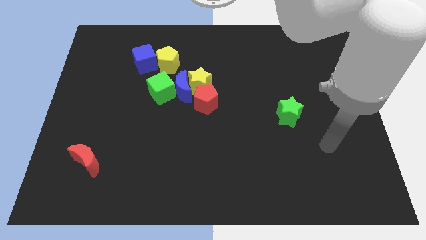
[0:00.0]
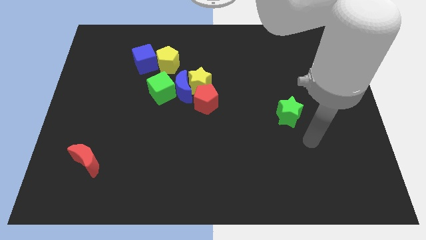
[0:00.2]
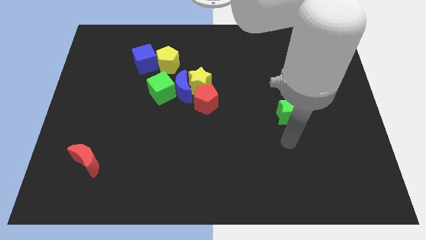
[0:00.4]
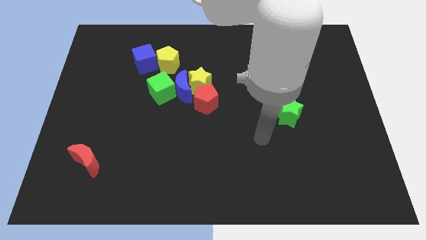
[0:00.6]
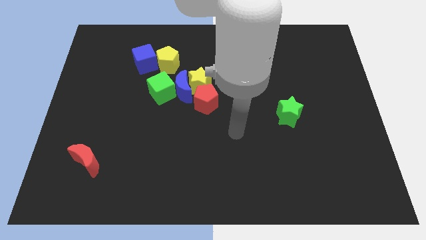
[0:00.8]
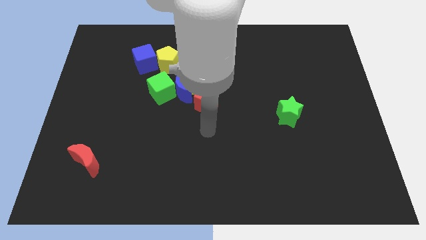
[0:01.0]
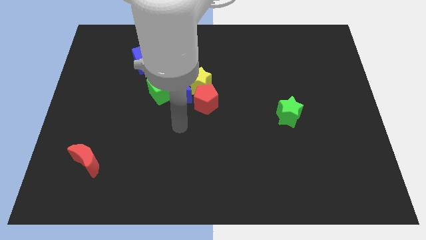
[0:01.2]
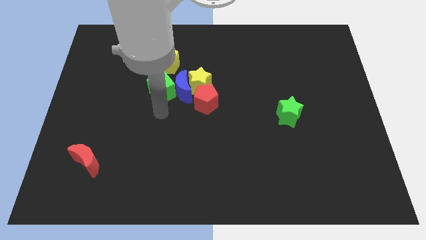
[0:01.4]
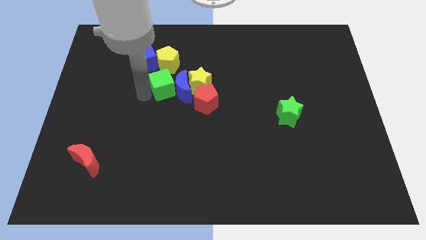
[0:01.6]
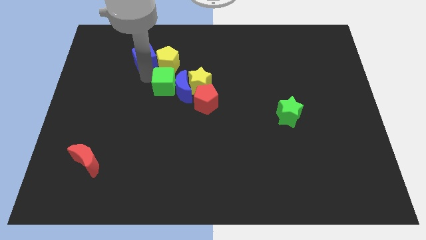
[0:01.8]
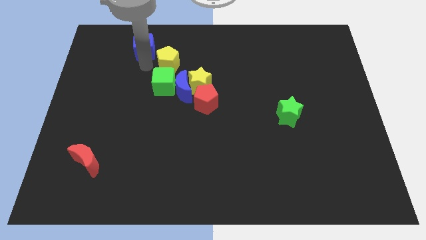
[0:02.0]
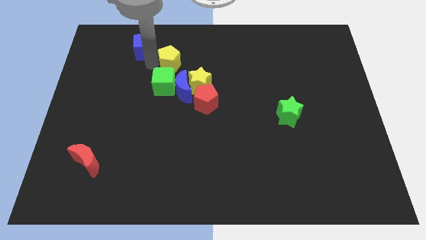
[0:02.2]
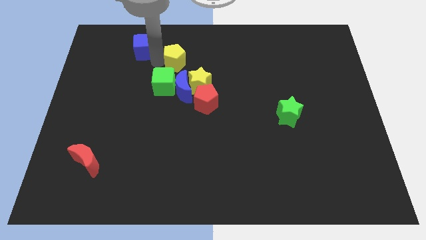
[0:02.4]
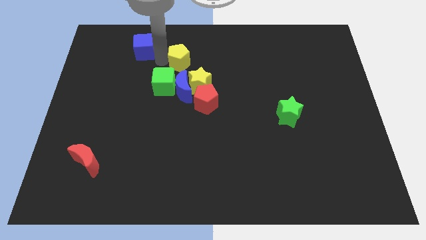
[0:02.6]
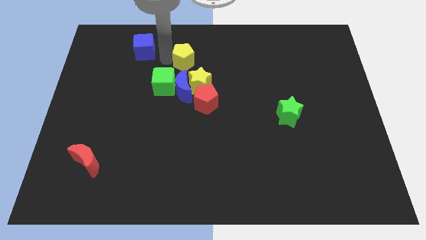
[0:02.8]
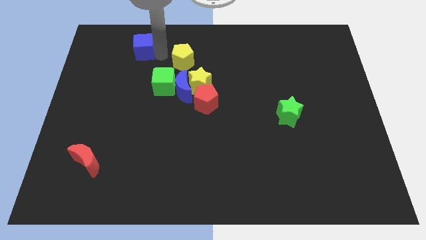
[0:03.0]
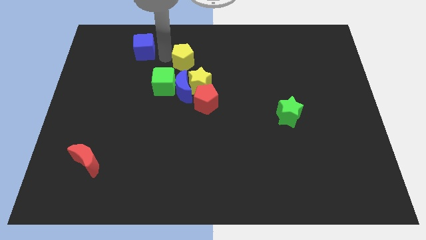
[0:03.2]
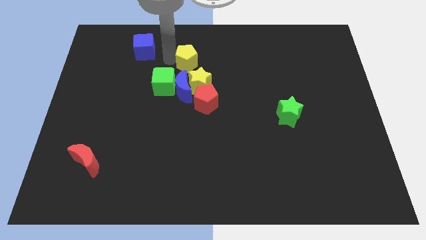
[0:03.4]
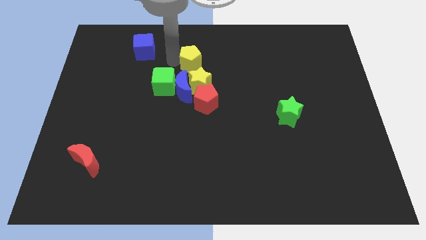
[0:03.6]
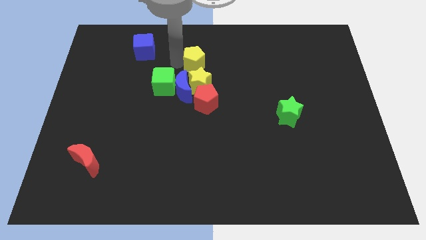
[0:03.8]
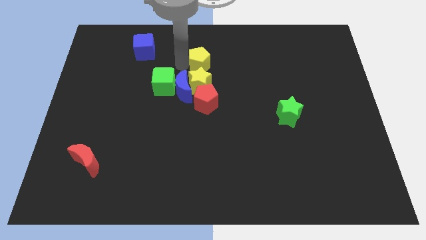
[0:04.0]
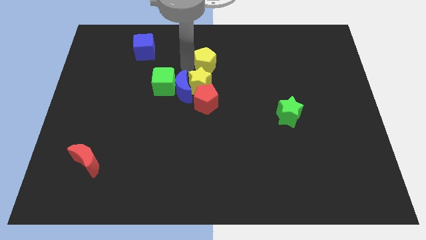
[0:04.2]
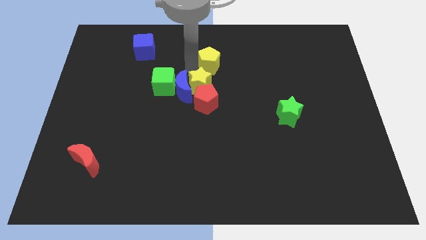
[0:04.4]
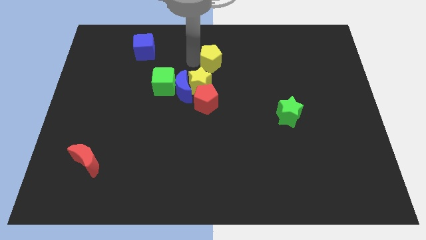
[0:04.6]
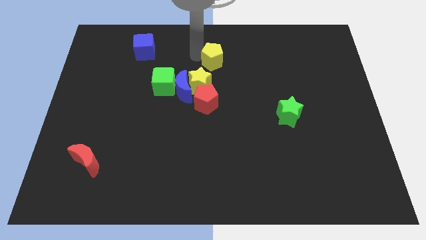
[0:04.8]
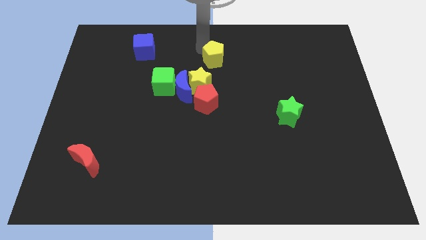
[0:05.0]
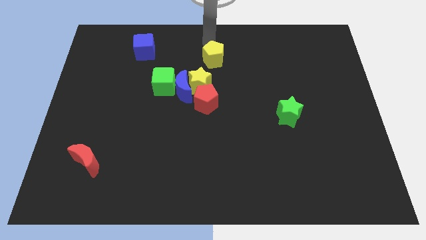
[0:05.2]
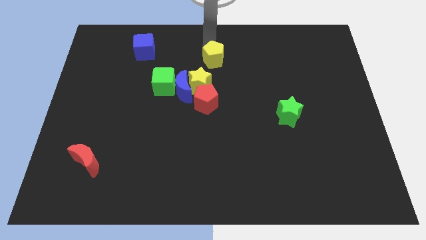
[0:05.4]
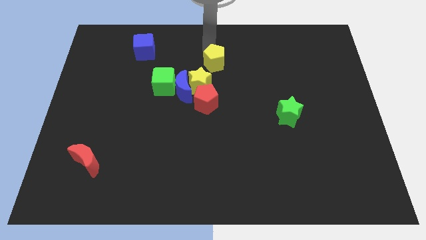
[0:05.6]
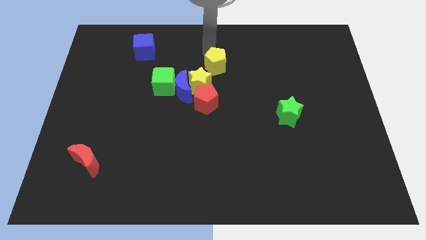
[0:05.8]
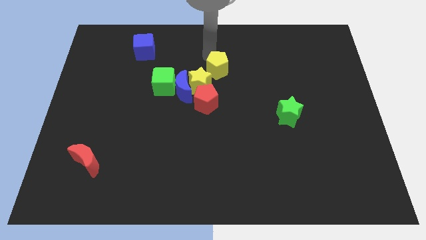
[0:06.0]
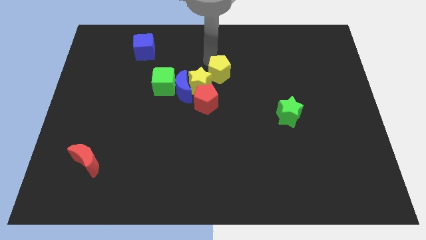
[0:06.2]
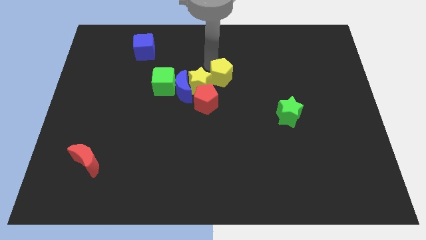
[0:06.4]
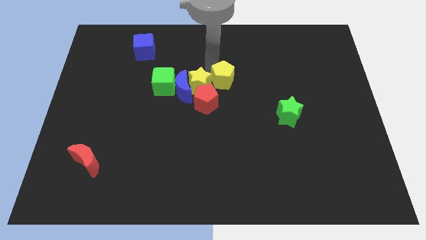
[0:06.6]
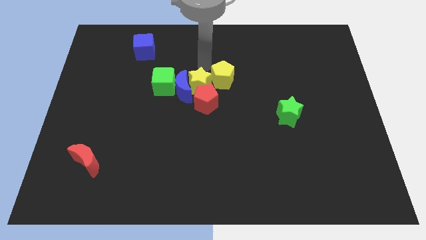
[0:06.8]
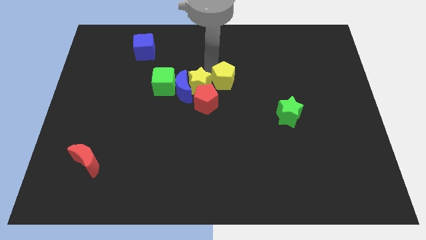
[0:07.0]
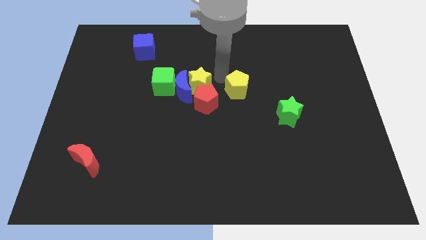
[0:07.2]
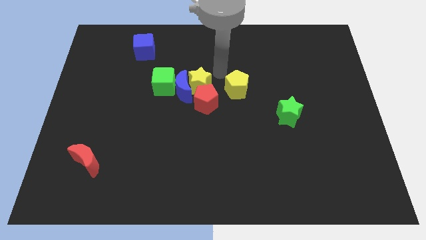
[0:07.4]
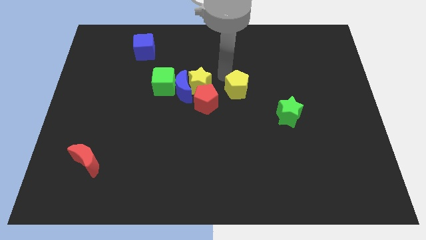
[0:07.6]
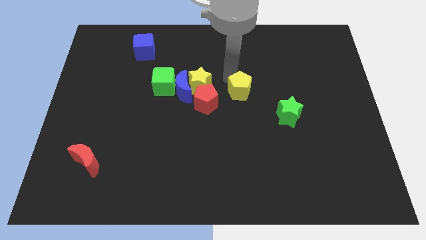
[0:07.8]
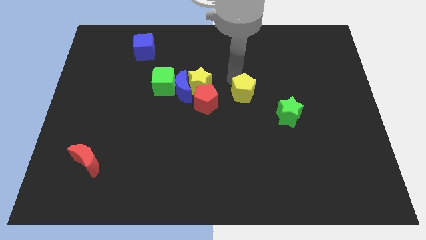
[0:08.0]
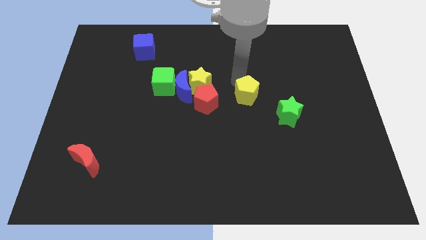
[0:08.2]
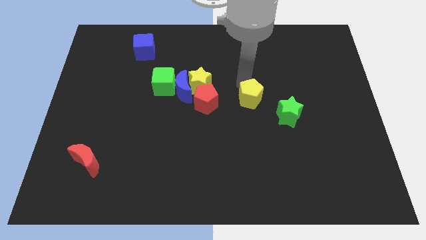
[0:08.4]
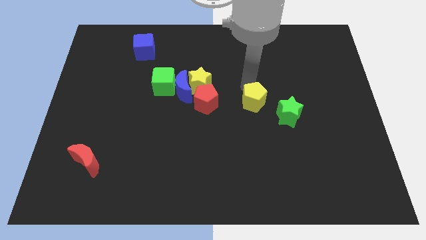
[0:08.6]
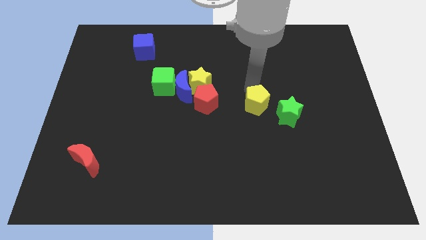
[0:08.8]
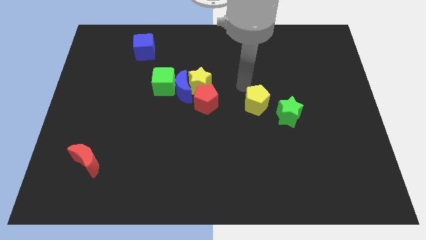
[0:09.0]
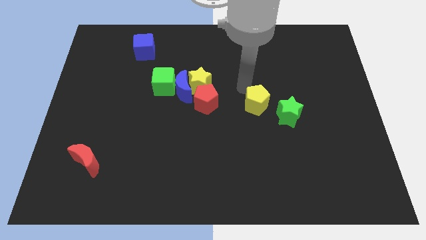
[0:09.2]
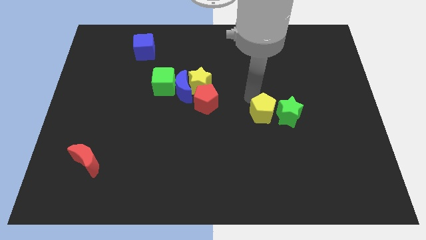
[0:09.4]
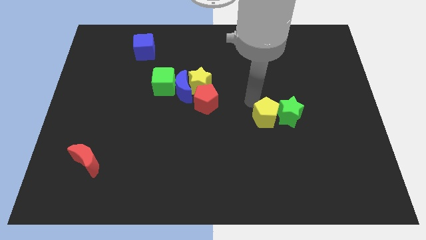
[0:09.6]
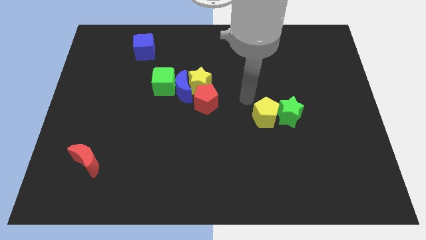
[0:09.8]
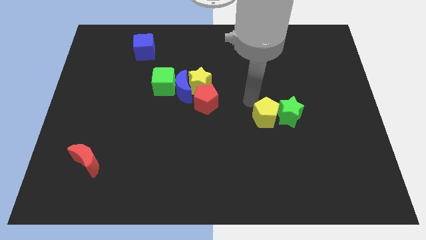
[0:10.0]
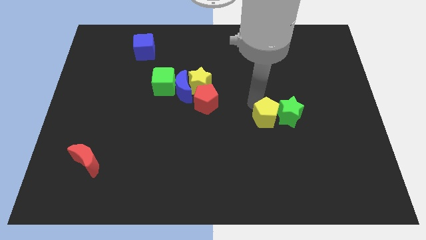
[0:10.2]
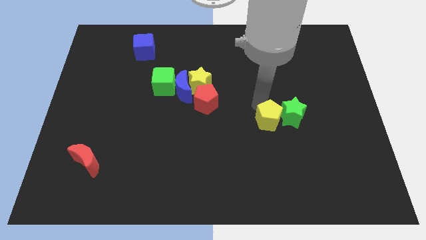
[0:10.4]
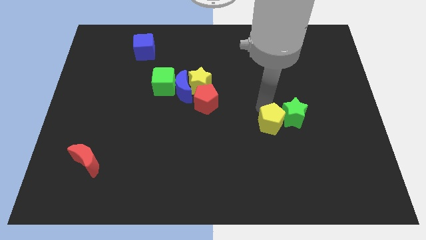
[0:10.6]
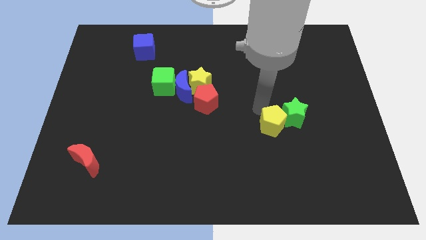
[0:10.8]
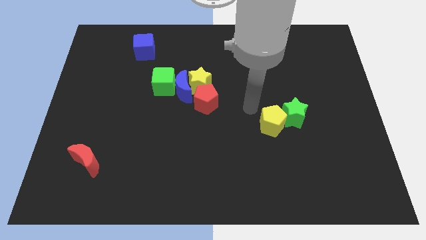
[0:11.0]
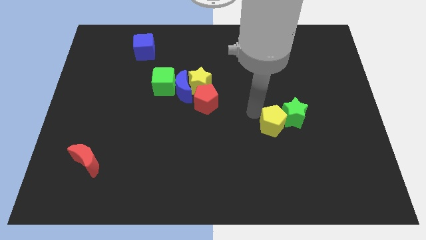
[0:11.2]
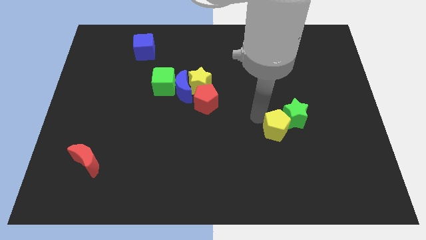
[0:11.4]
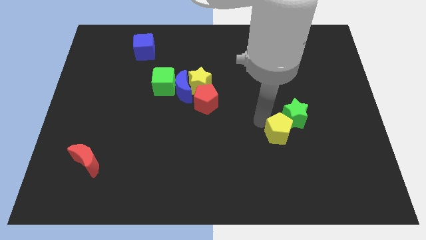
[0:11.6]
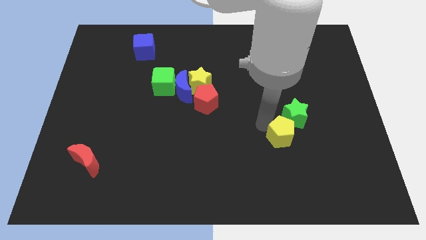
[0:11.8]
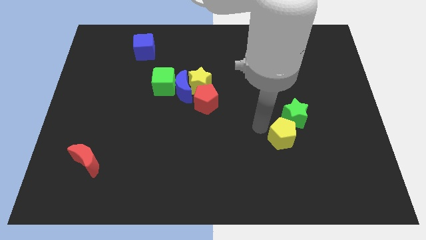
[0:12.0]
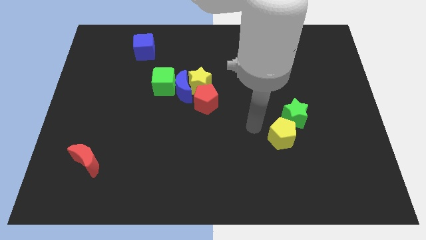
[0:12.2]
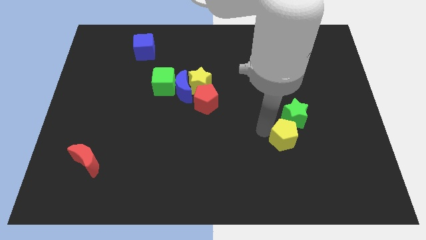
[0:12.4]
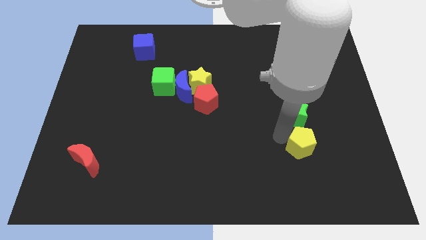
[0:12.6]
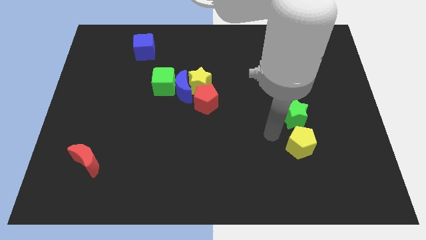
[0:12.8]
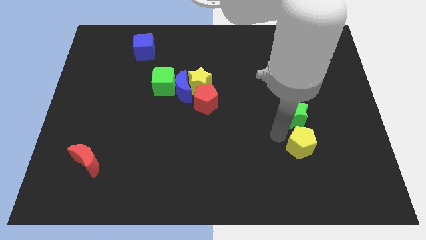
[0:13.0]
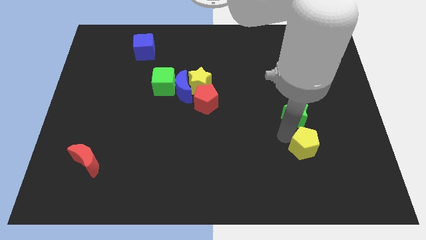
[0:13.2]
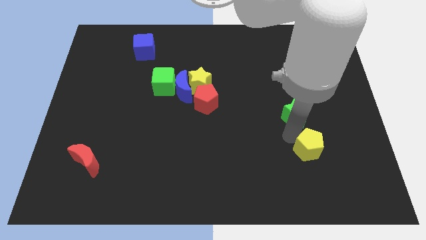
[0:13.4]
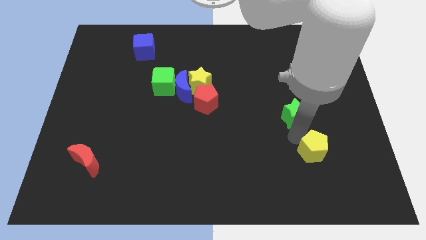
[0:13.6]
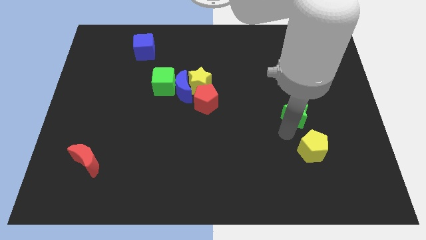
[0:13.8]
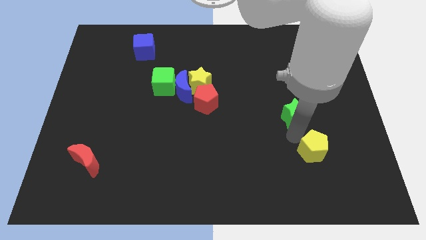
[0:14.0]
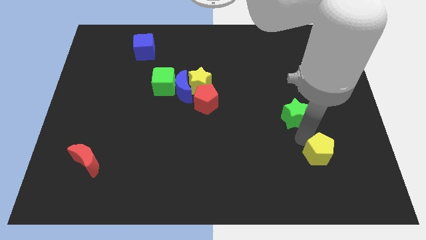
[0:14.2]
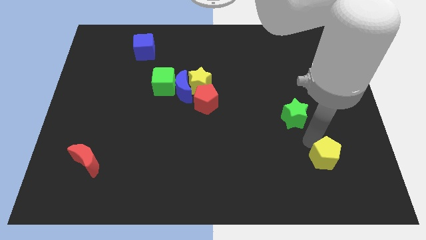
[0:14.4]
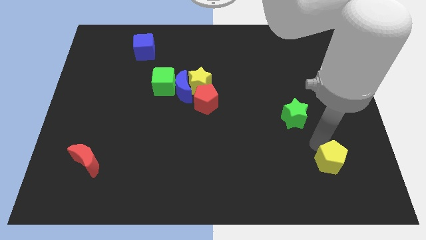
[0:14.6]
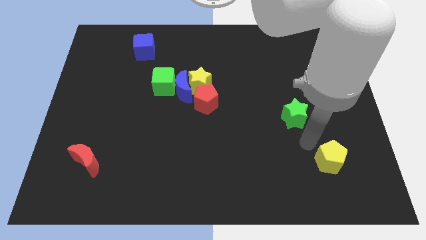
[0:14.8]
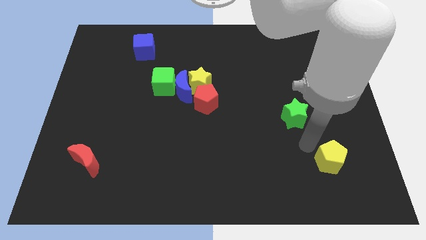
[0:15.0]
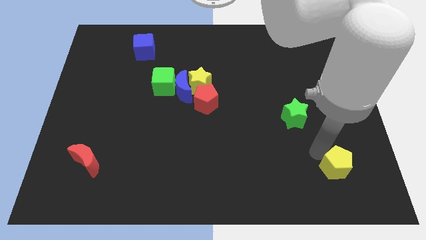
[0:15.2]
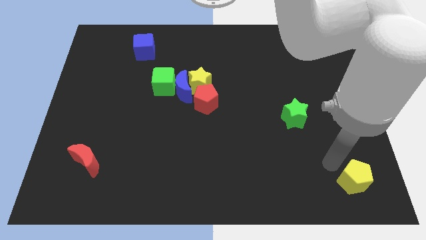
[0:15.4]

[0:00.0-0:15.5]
move the yellow pentagon to the bottom right corner
